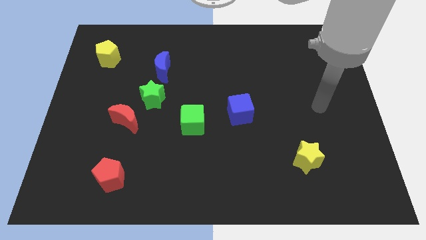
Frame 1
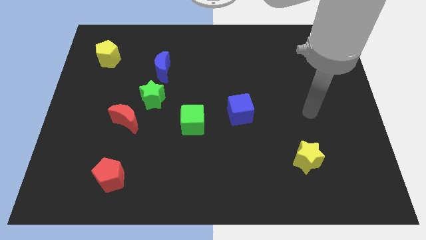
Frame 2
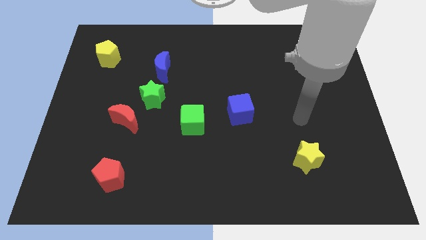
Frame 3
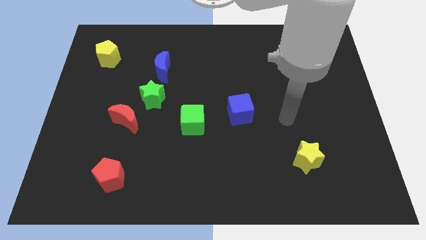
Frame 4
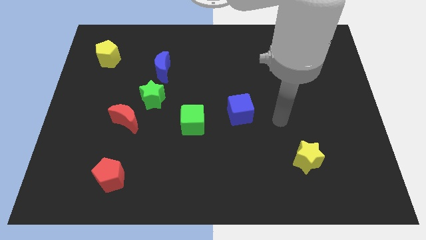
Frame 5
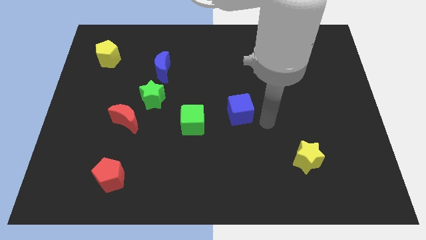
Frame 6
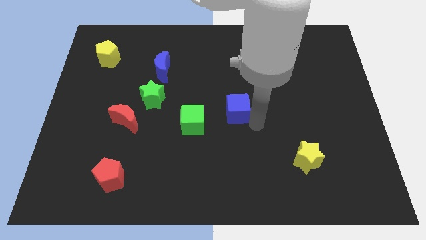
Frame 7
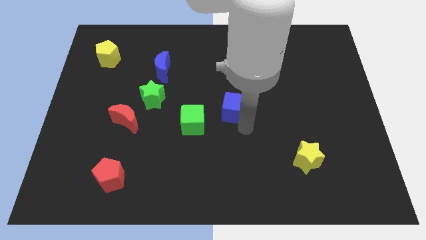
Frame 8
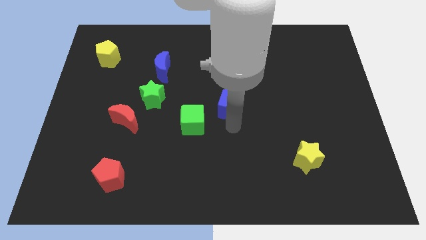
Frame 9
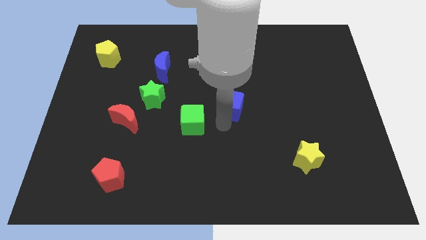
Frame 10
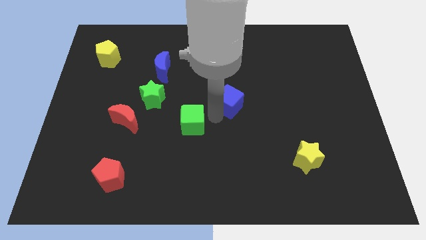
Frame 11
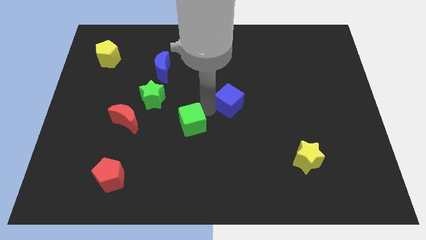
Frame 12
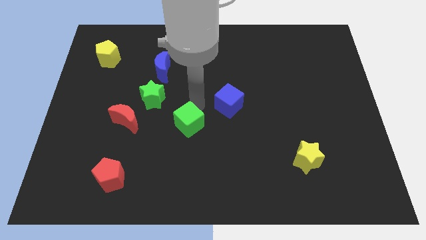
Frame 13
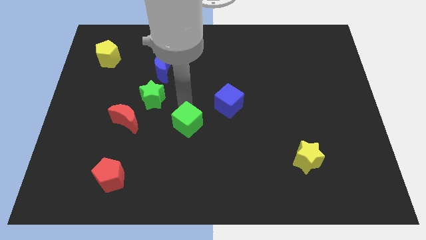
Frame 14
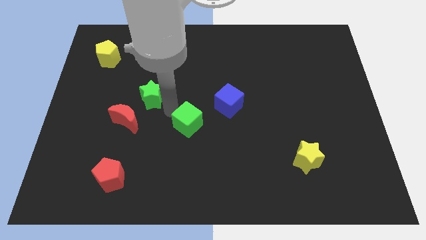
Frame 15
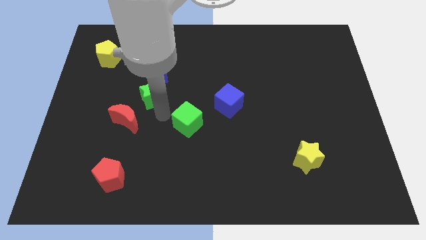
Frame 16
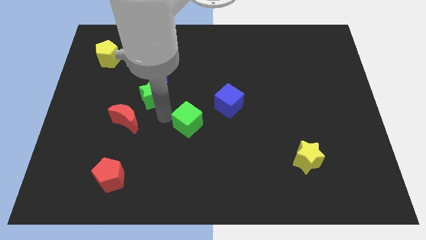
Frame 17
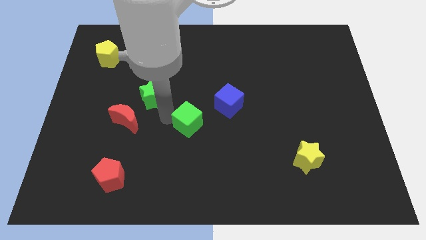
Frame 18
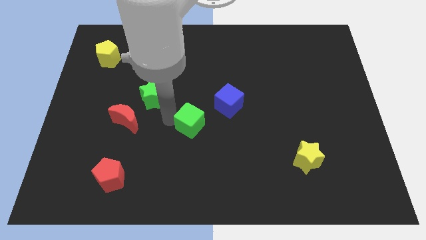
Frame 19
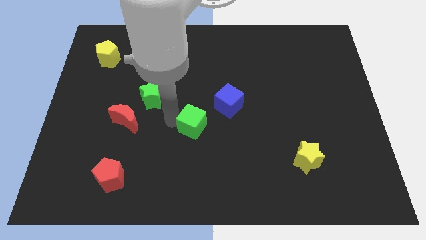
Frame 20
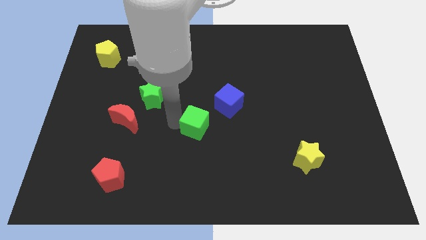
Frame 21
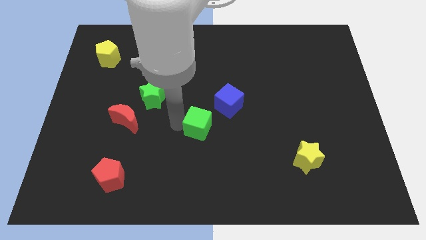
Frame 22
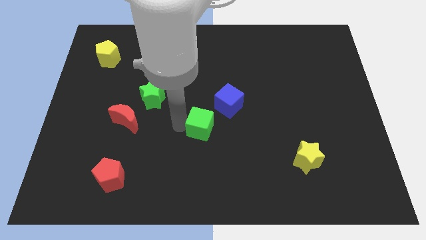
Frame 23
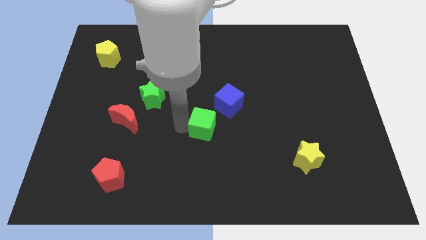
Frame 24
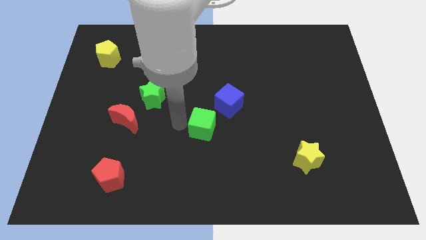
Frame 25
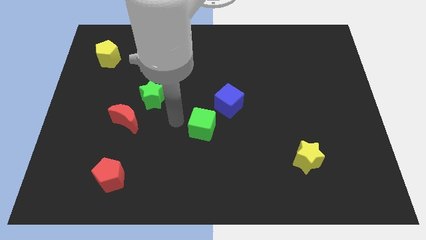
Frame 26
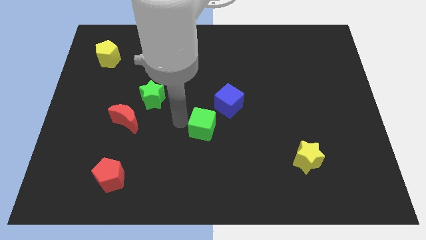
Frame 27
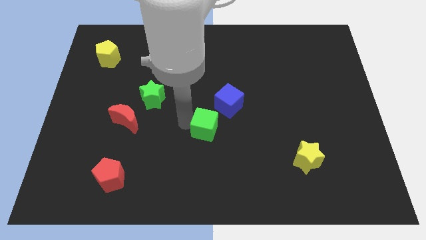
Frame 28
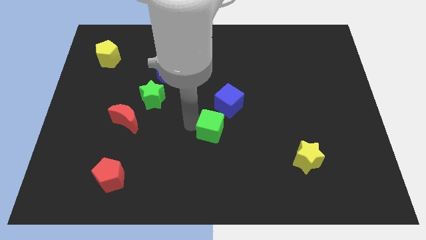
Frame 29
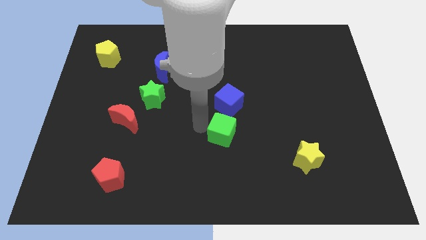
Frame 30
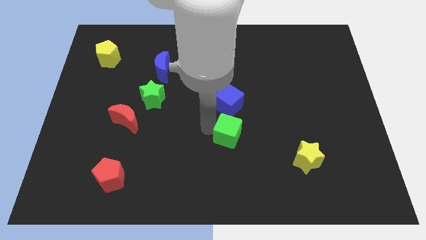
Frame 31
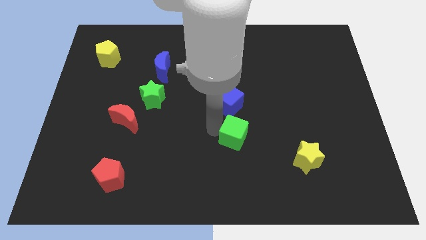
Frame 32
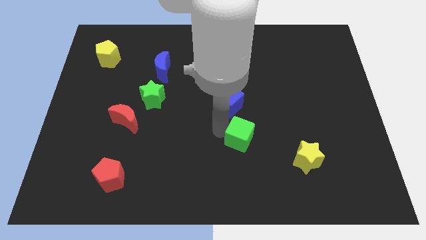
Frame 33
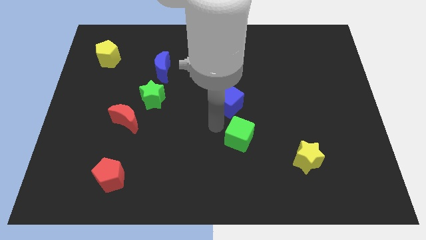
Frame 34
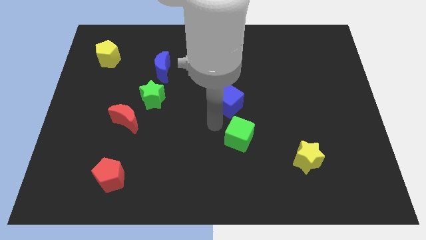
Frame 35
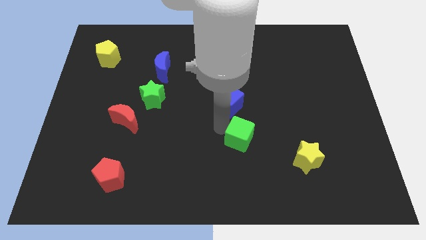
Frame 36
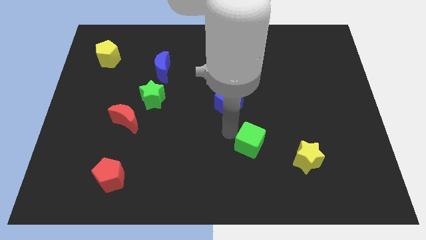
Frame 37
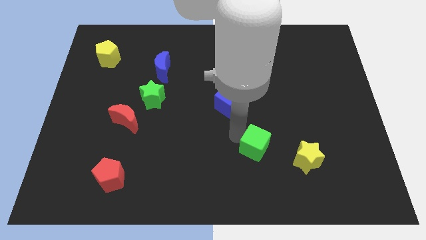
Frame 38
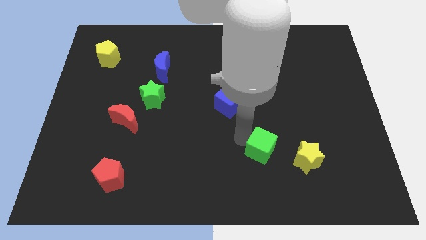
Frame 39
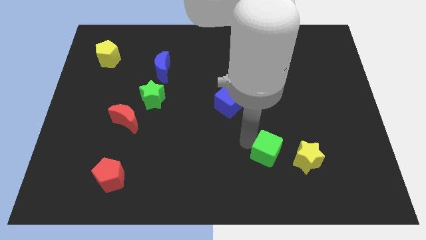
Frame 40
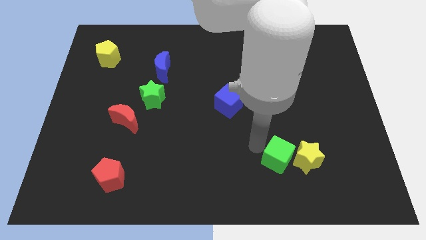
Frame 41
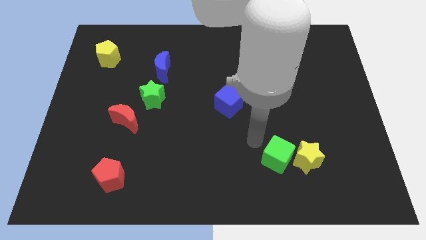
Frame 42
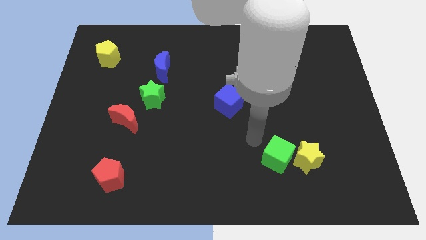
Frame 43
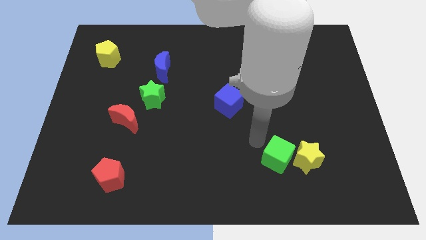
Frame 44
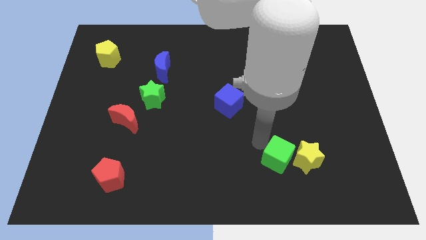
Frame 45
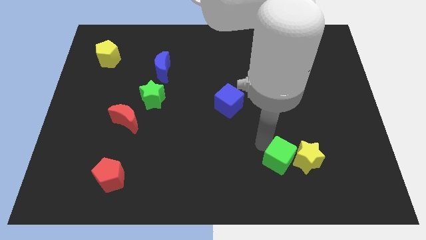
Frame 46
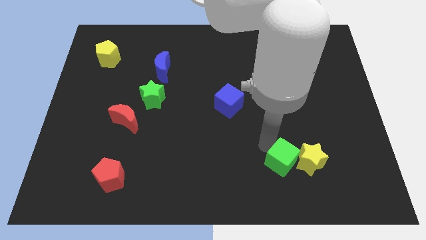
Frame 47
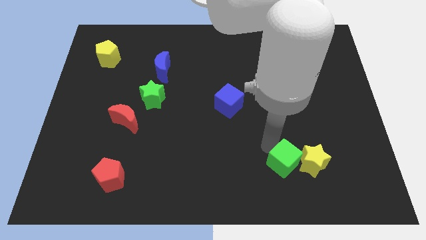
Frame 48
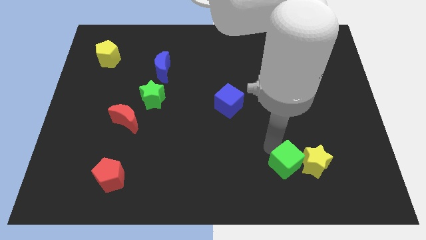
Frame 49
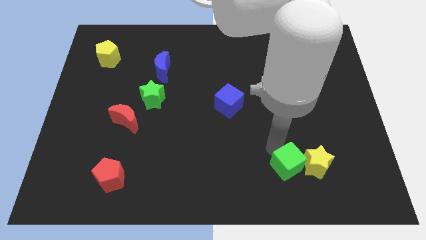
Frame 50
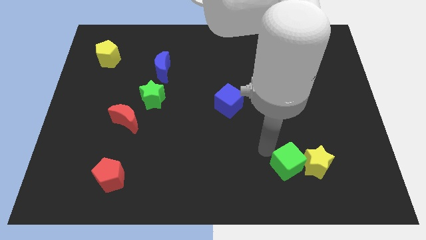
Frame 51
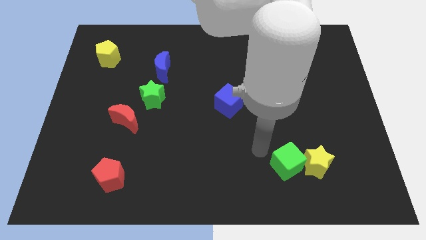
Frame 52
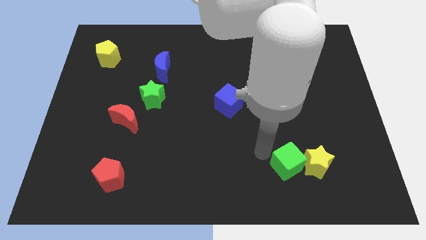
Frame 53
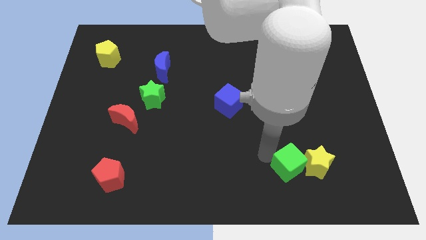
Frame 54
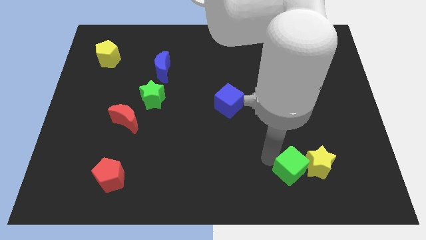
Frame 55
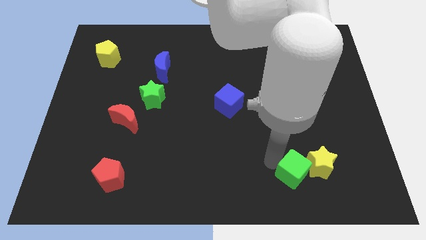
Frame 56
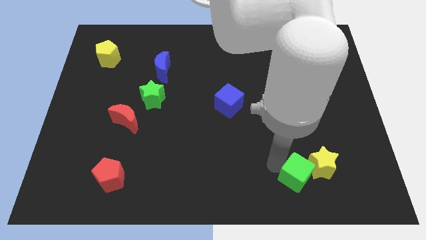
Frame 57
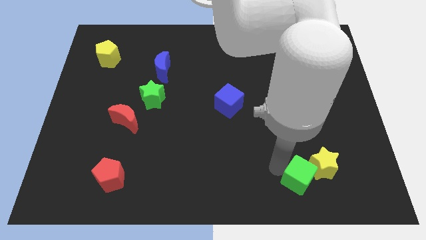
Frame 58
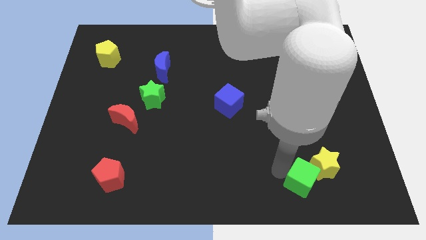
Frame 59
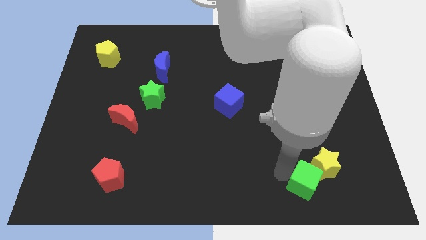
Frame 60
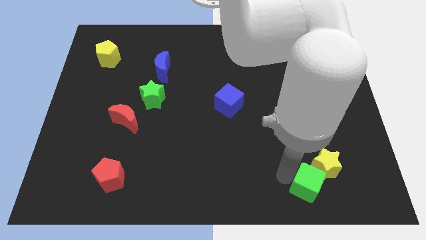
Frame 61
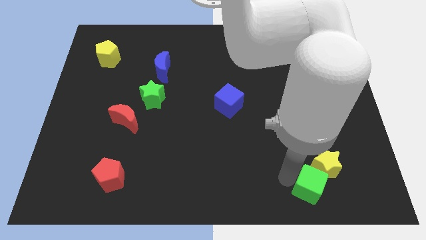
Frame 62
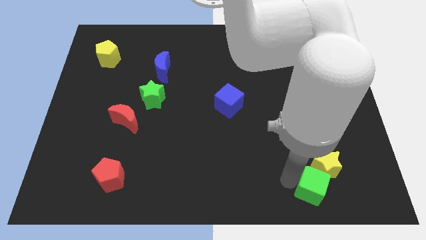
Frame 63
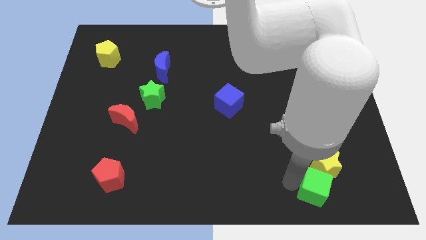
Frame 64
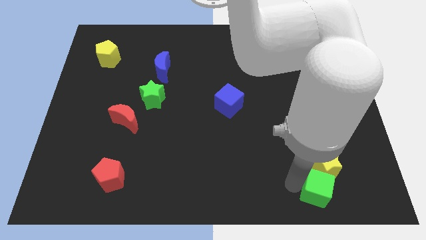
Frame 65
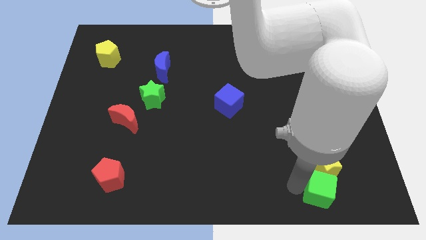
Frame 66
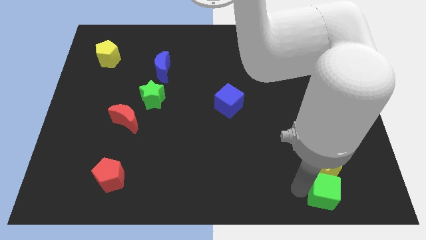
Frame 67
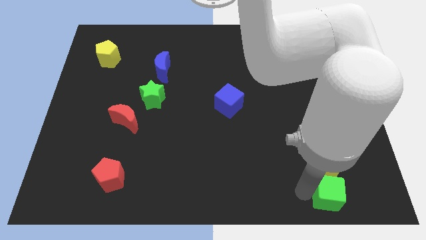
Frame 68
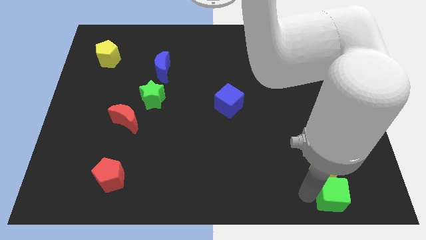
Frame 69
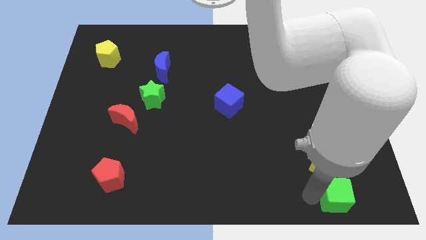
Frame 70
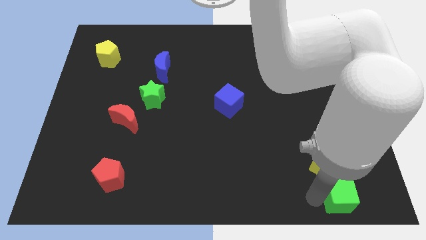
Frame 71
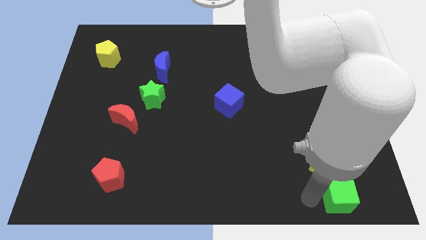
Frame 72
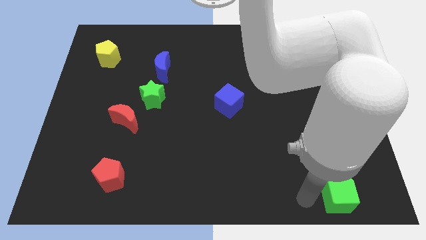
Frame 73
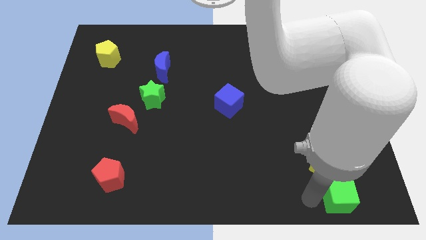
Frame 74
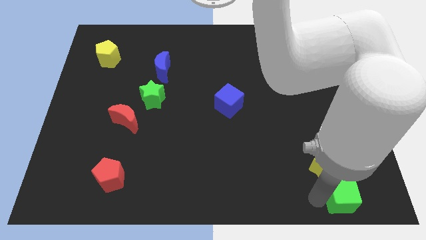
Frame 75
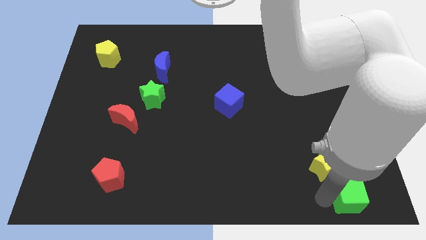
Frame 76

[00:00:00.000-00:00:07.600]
move the green cube to the lower right corner
